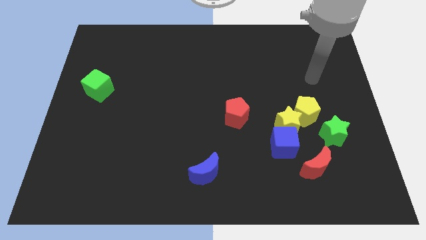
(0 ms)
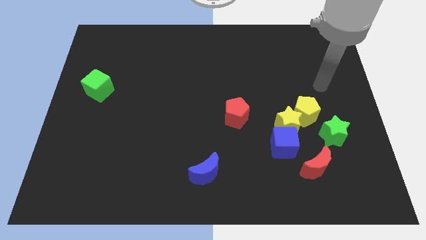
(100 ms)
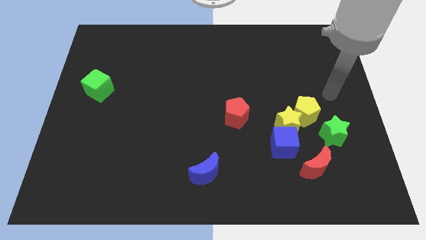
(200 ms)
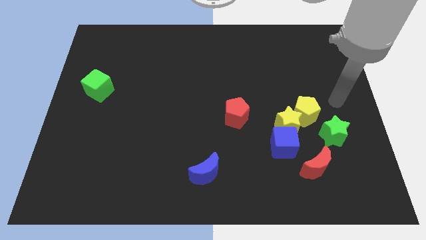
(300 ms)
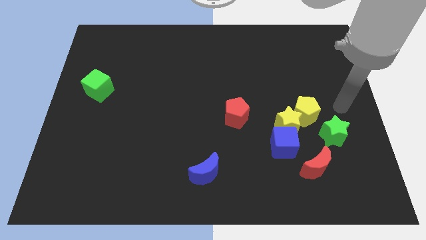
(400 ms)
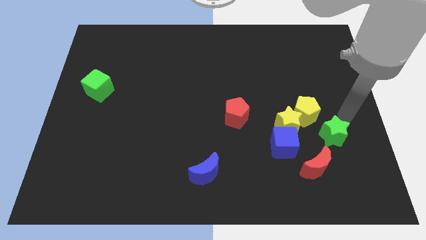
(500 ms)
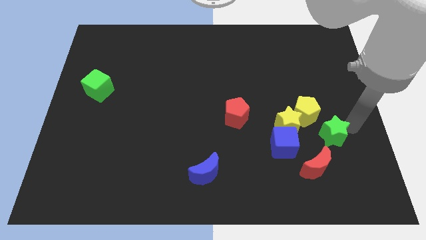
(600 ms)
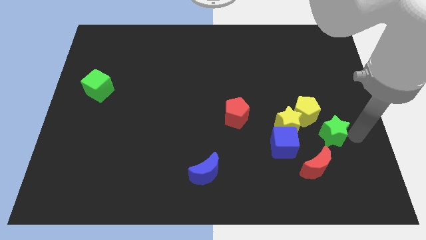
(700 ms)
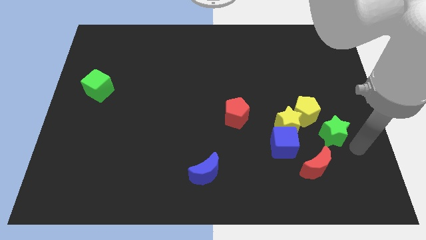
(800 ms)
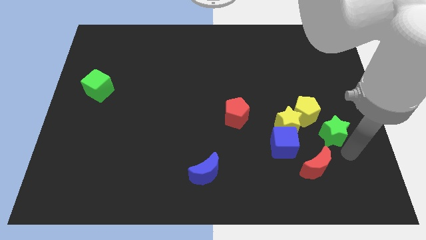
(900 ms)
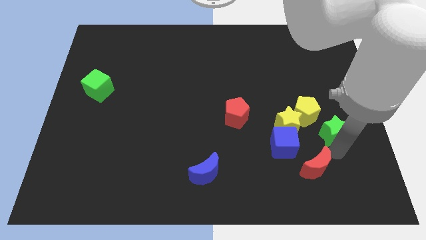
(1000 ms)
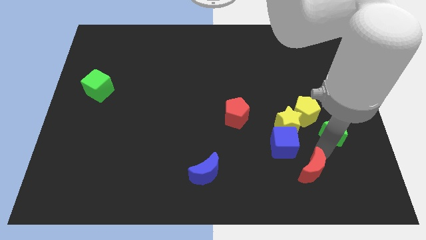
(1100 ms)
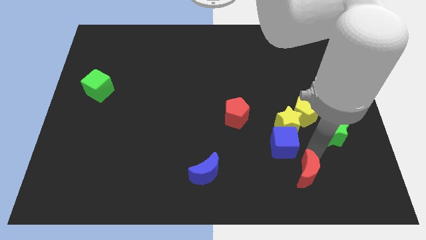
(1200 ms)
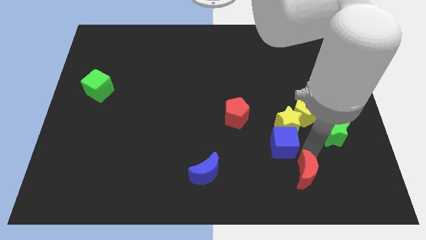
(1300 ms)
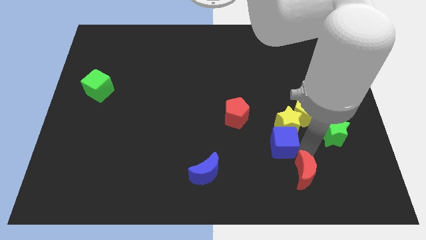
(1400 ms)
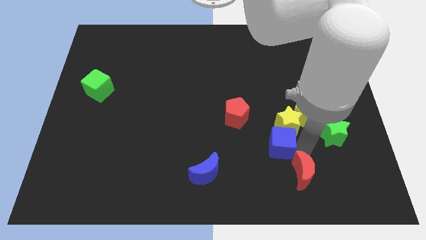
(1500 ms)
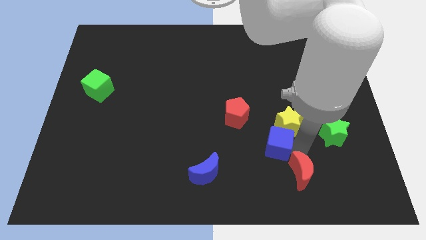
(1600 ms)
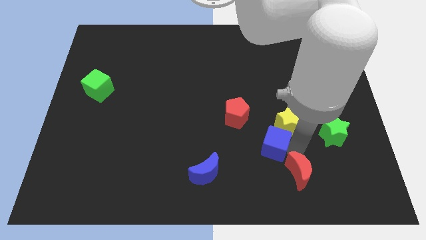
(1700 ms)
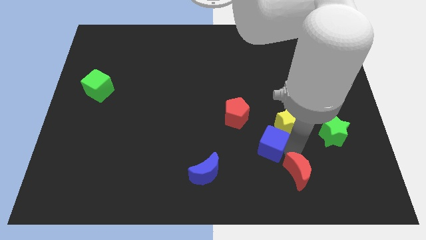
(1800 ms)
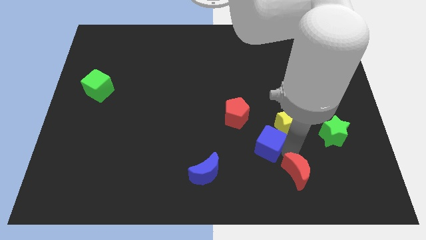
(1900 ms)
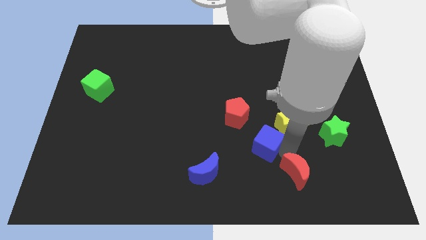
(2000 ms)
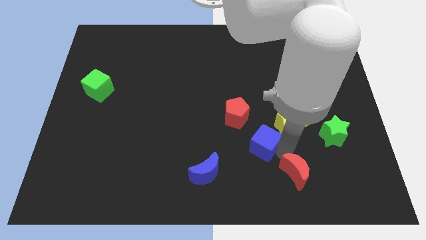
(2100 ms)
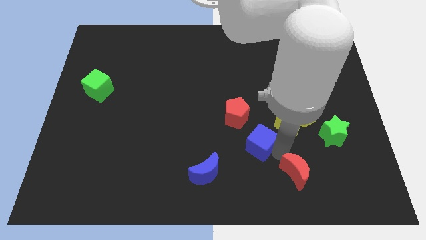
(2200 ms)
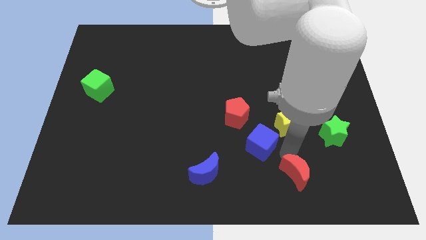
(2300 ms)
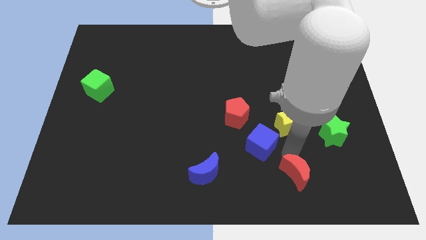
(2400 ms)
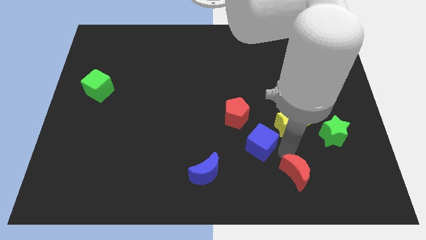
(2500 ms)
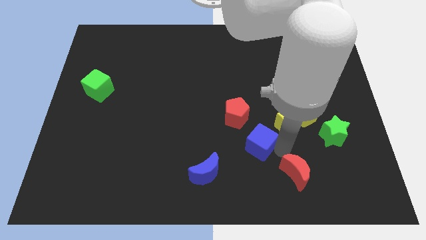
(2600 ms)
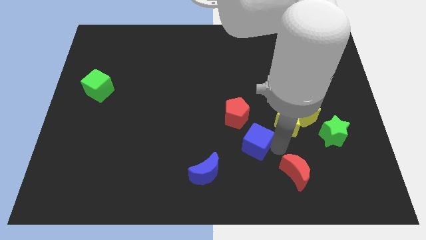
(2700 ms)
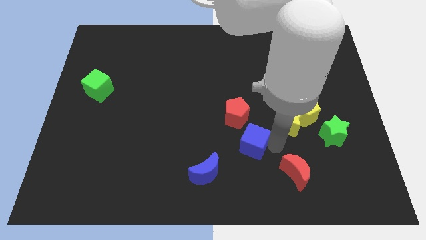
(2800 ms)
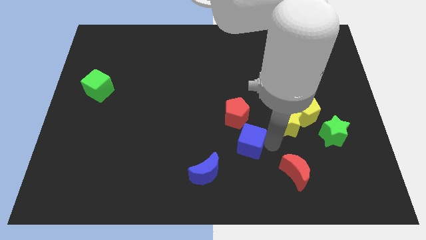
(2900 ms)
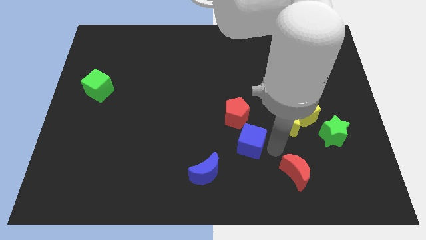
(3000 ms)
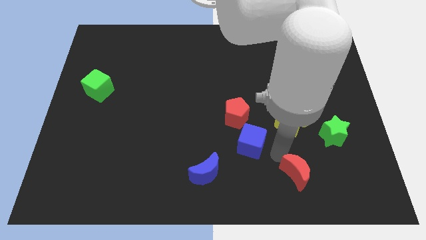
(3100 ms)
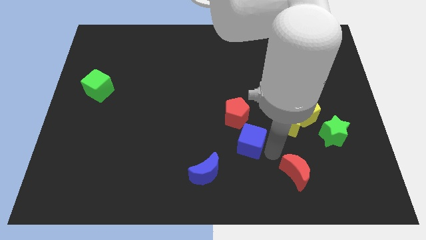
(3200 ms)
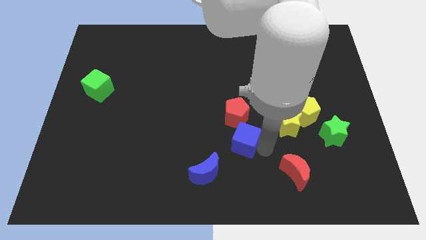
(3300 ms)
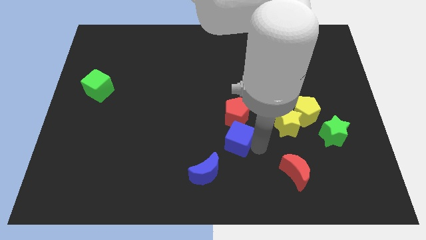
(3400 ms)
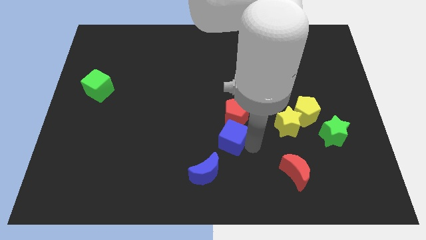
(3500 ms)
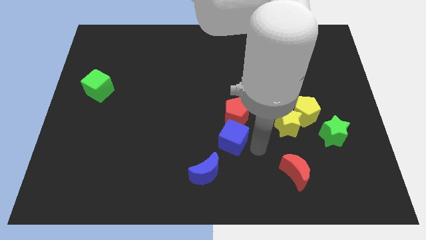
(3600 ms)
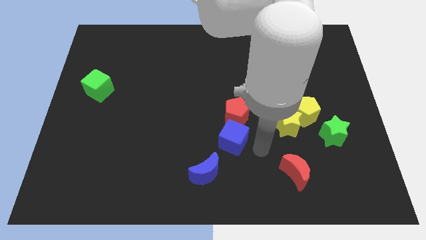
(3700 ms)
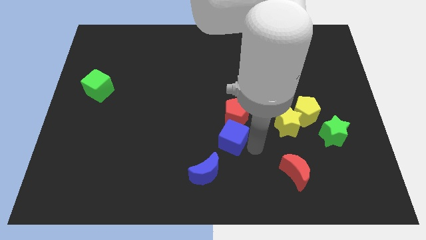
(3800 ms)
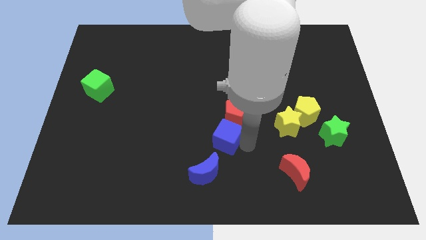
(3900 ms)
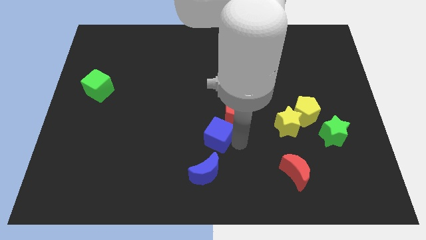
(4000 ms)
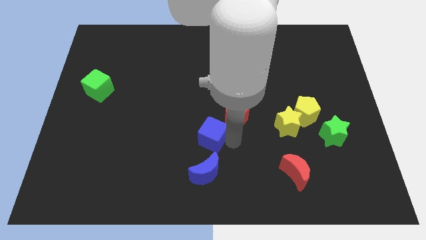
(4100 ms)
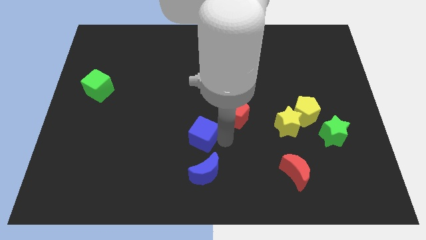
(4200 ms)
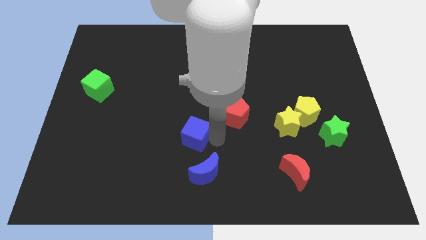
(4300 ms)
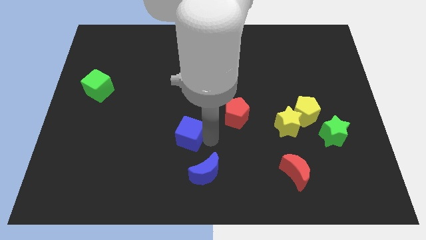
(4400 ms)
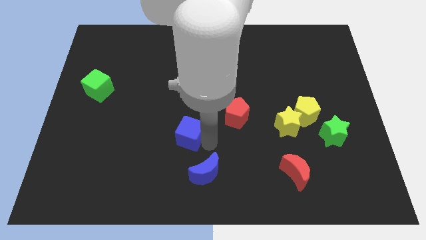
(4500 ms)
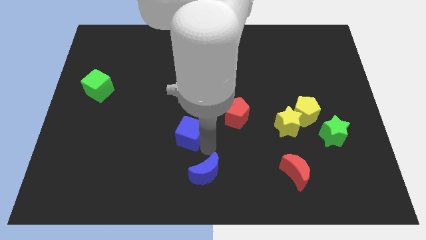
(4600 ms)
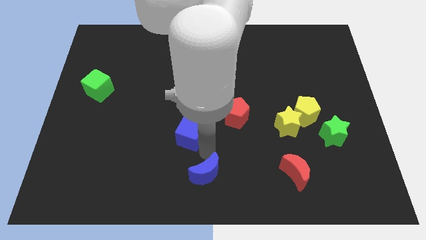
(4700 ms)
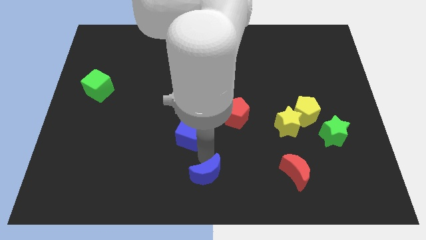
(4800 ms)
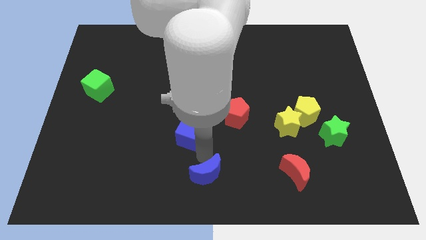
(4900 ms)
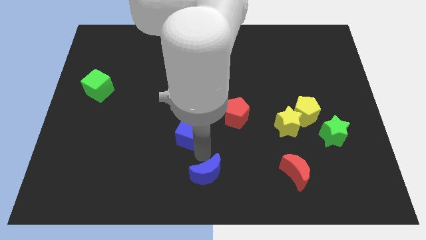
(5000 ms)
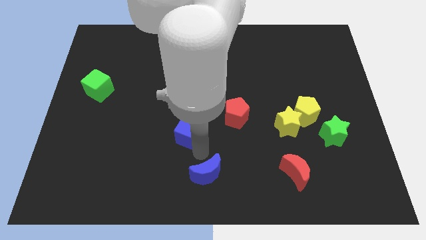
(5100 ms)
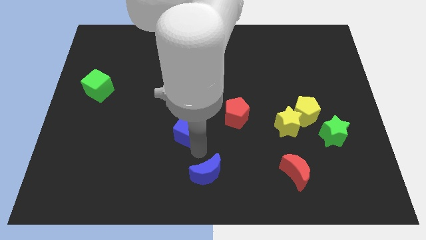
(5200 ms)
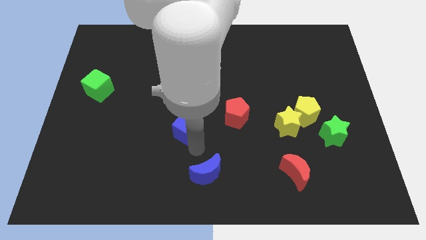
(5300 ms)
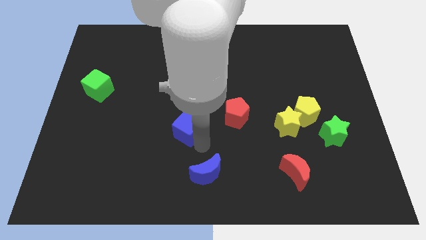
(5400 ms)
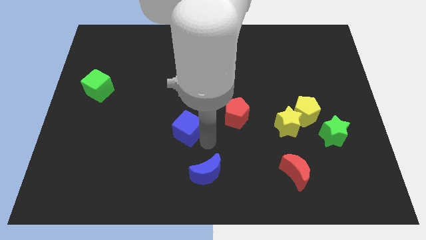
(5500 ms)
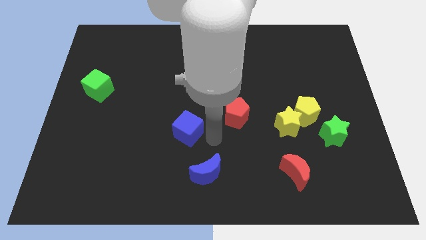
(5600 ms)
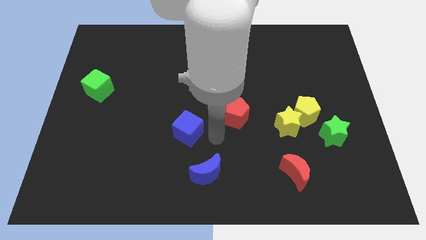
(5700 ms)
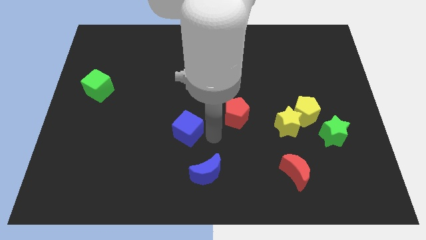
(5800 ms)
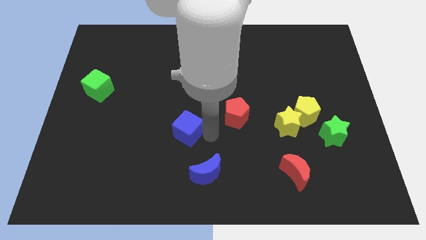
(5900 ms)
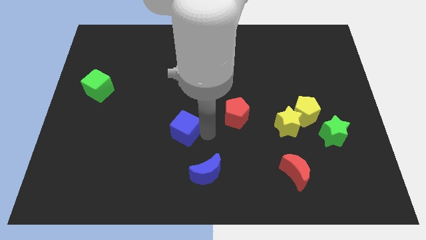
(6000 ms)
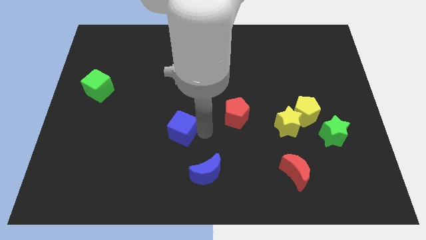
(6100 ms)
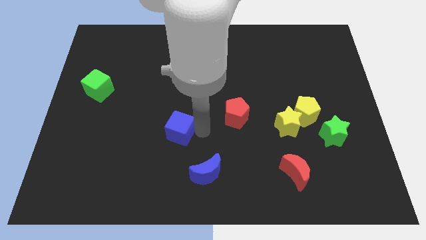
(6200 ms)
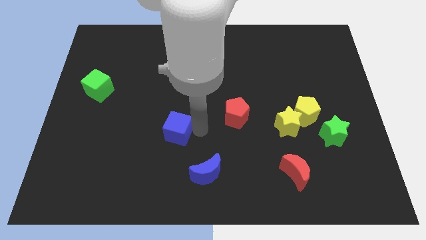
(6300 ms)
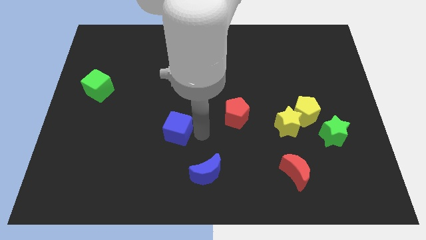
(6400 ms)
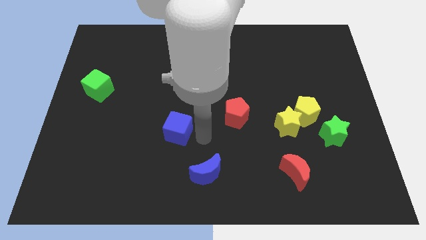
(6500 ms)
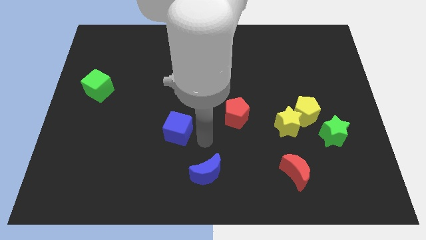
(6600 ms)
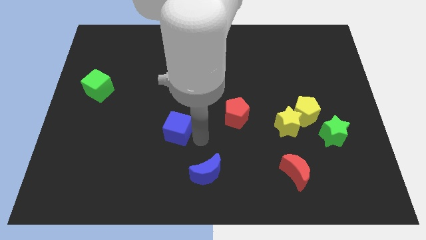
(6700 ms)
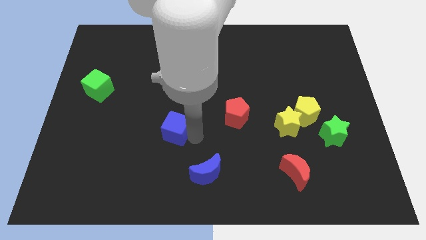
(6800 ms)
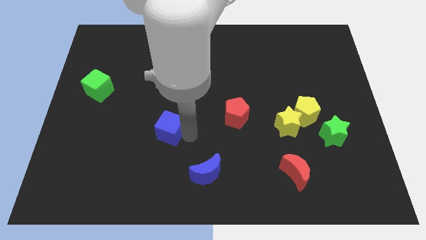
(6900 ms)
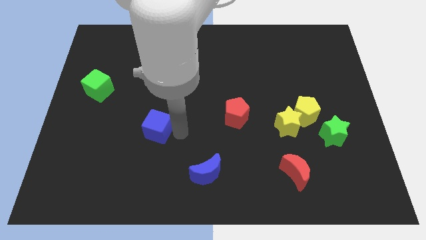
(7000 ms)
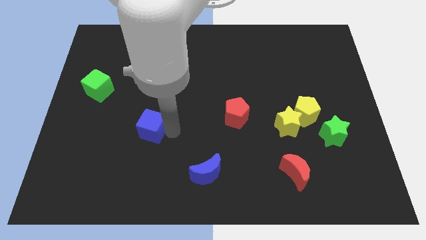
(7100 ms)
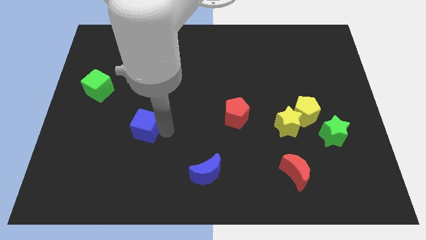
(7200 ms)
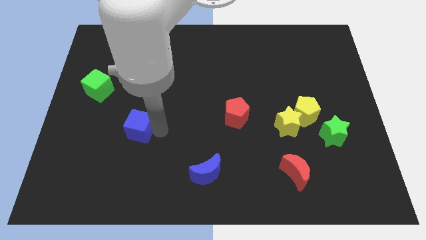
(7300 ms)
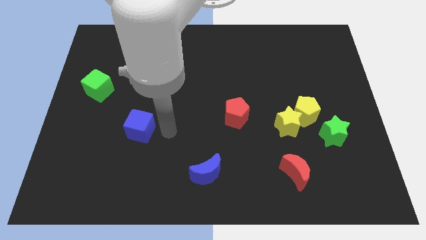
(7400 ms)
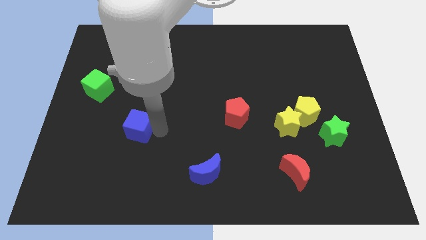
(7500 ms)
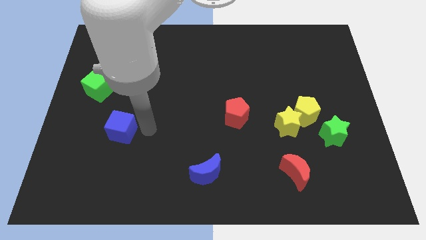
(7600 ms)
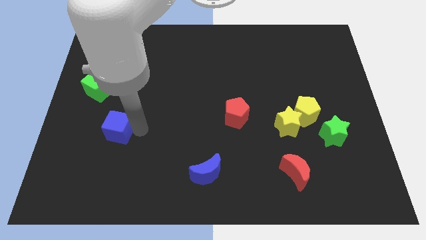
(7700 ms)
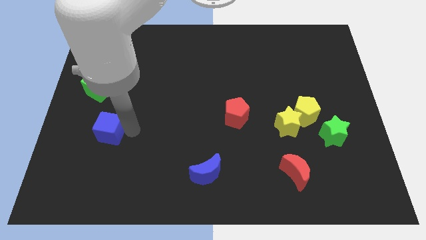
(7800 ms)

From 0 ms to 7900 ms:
slide the blue cube below the green cube
